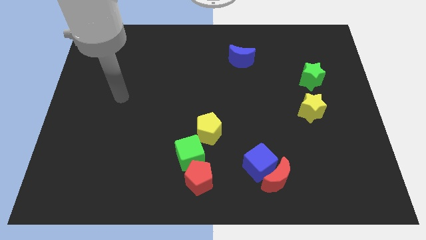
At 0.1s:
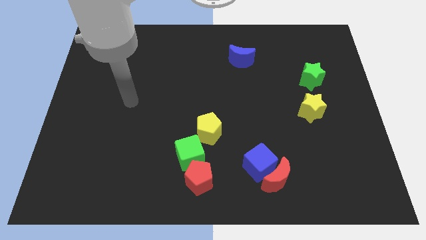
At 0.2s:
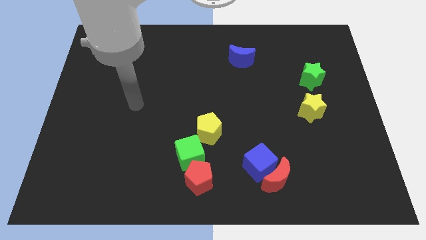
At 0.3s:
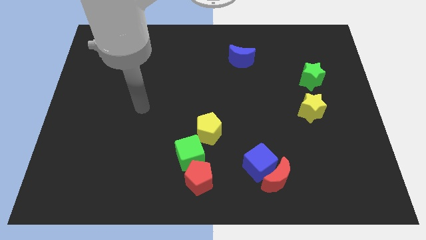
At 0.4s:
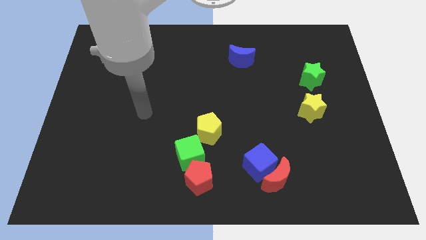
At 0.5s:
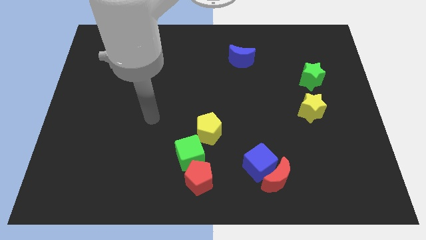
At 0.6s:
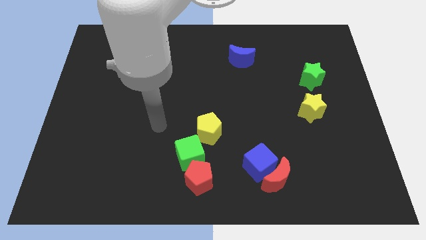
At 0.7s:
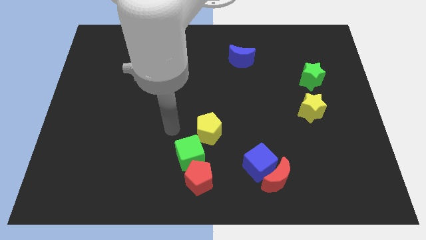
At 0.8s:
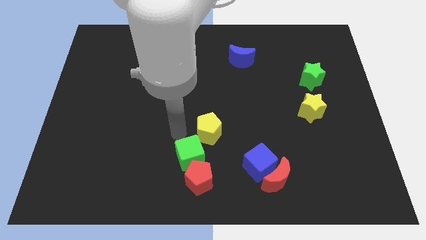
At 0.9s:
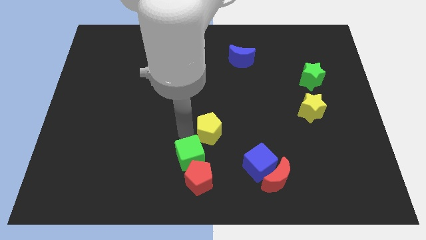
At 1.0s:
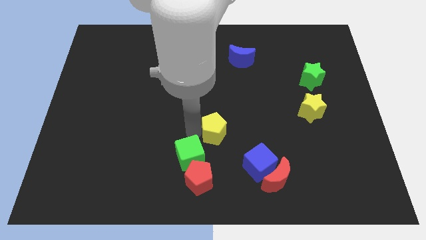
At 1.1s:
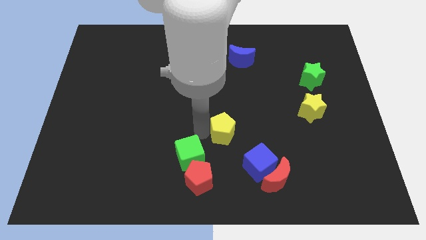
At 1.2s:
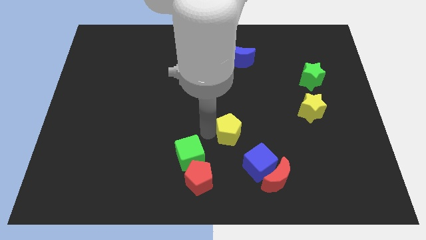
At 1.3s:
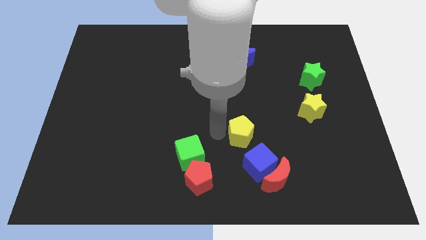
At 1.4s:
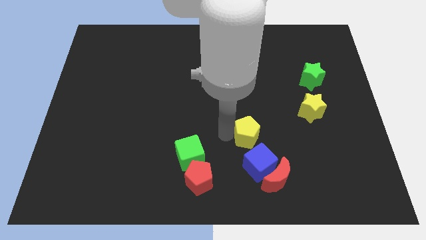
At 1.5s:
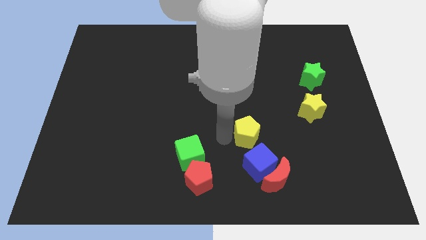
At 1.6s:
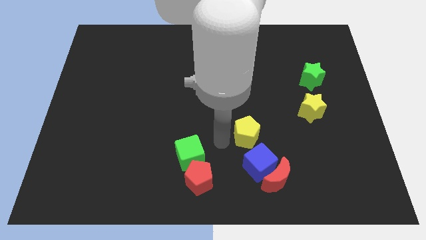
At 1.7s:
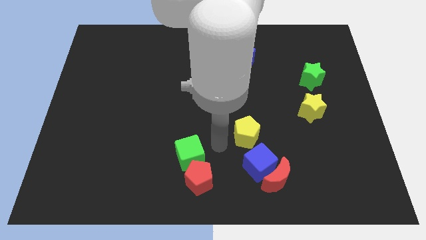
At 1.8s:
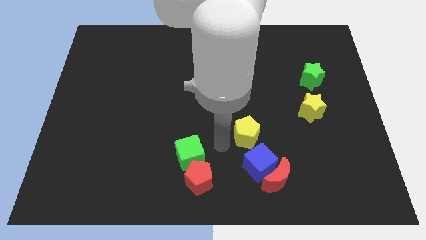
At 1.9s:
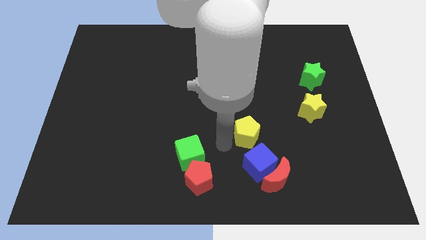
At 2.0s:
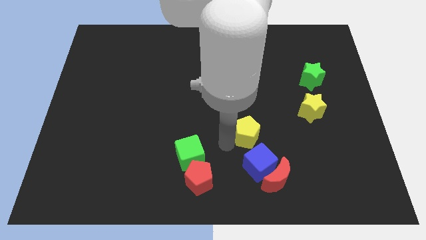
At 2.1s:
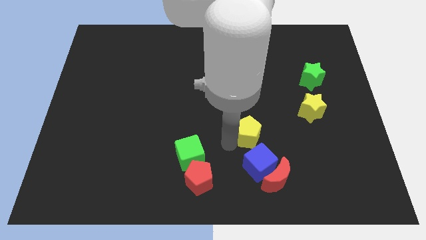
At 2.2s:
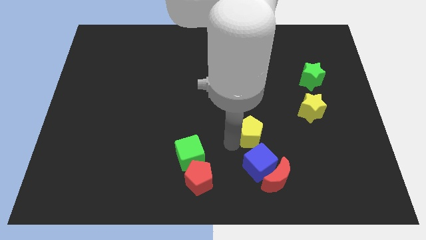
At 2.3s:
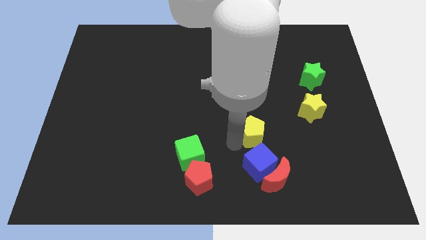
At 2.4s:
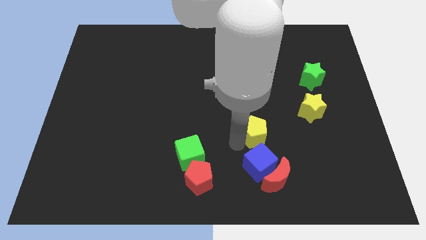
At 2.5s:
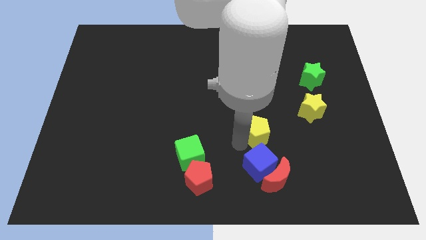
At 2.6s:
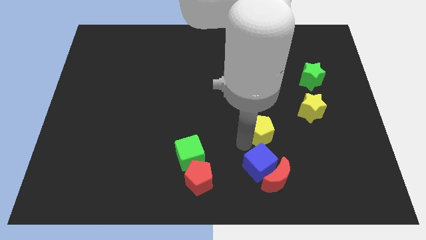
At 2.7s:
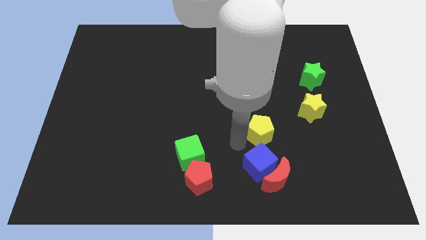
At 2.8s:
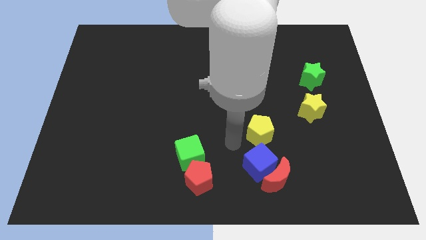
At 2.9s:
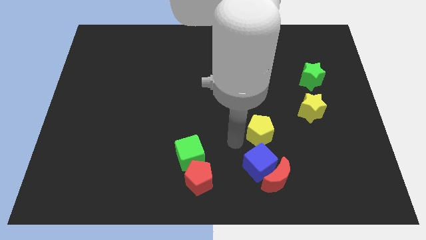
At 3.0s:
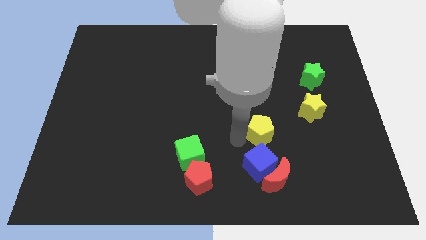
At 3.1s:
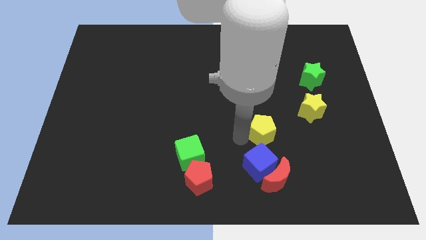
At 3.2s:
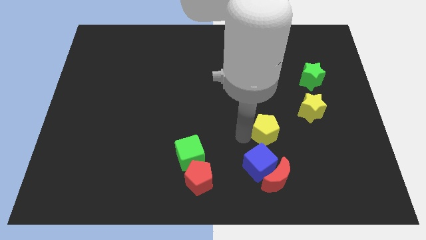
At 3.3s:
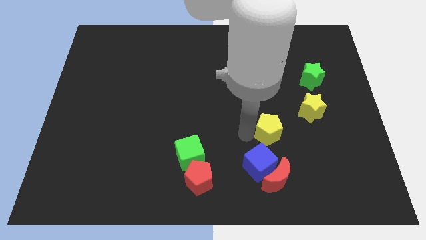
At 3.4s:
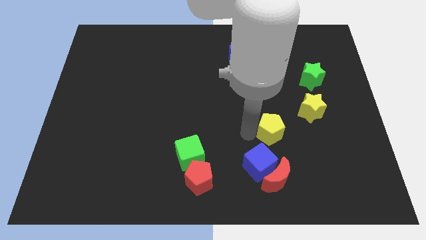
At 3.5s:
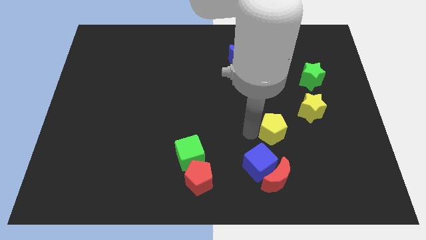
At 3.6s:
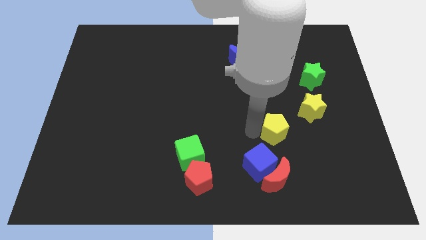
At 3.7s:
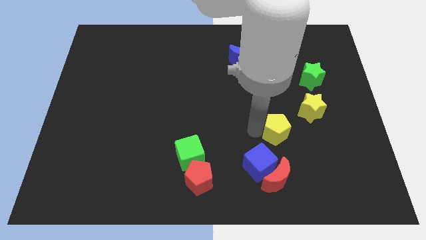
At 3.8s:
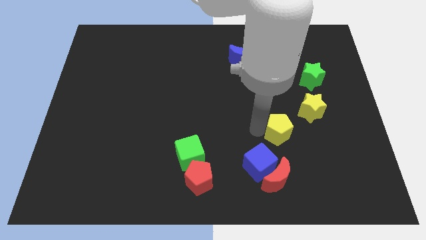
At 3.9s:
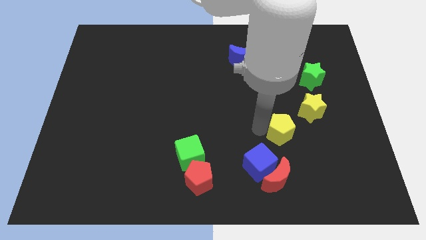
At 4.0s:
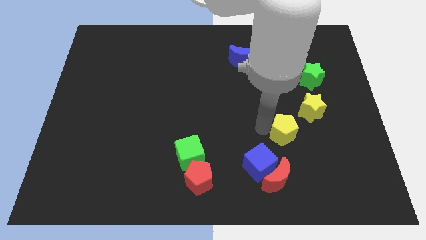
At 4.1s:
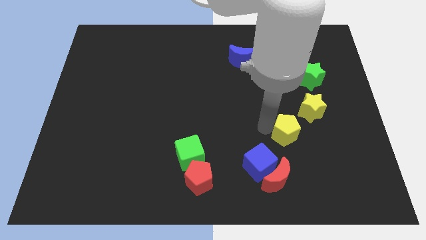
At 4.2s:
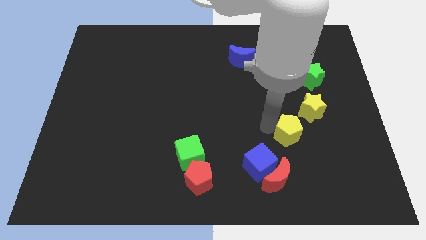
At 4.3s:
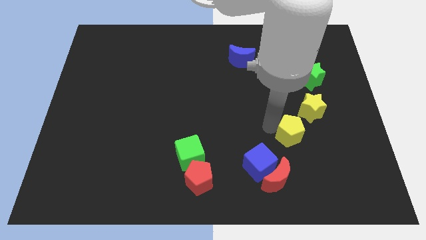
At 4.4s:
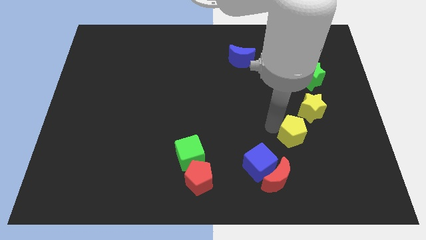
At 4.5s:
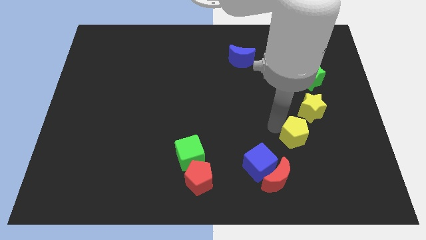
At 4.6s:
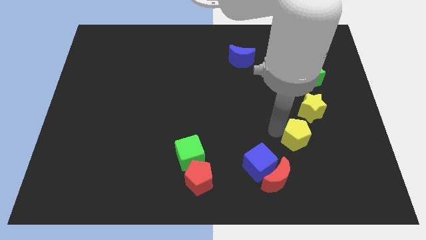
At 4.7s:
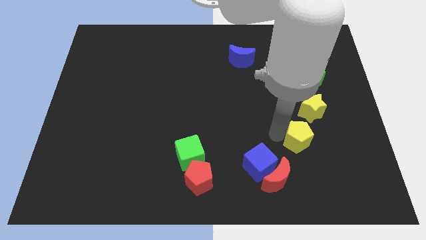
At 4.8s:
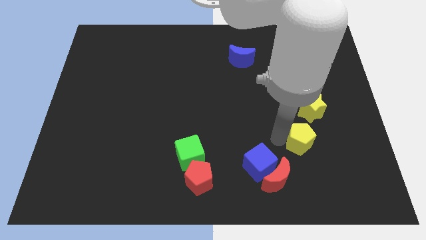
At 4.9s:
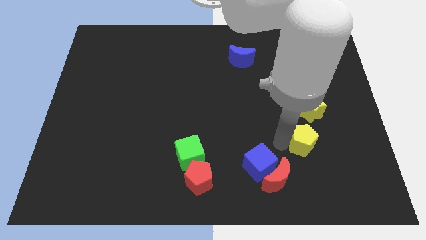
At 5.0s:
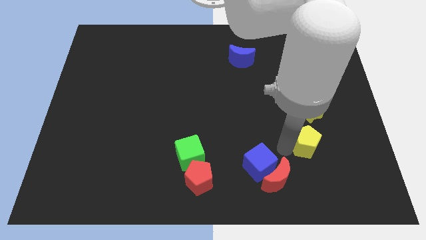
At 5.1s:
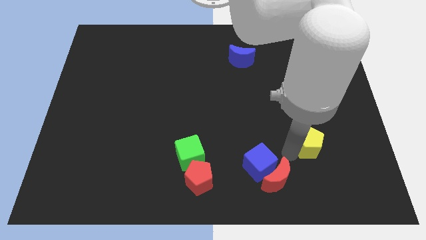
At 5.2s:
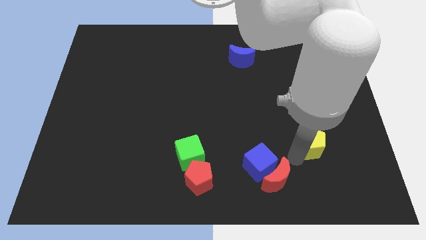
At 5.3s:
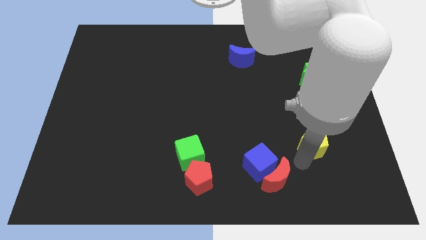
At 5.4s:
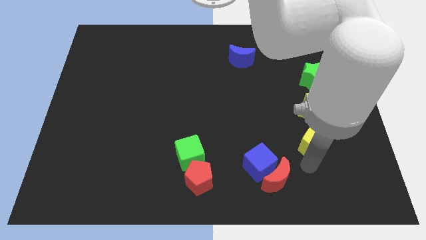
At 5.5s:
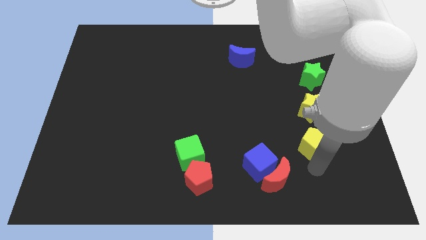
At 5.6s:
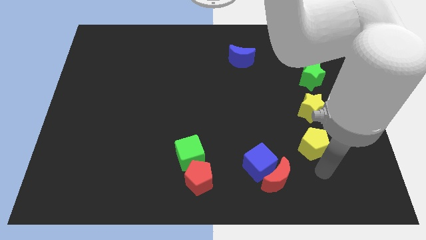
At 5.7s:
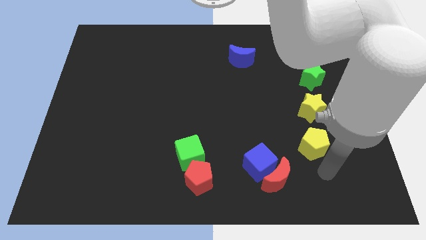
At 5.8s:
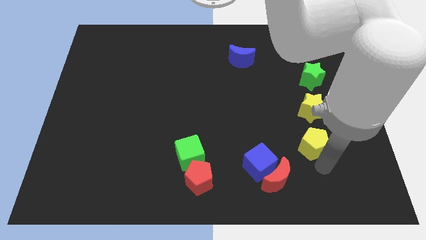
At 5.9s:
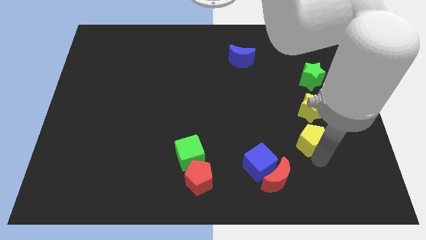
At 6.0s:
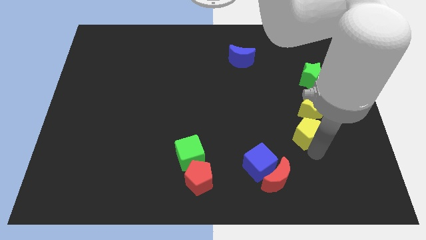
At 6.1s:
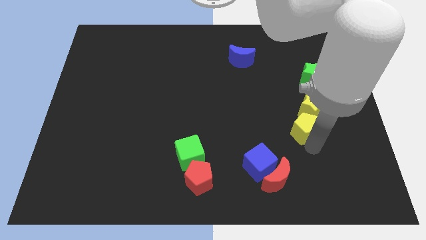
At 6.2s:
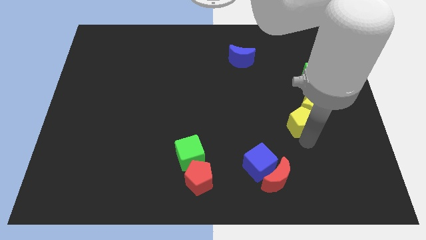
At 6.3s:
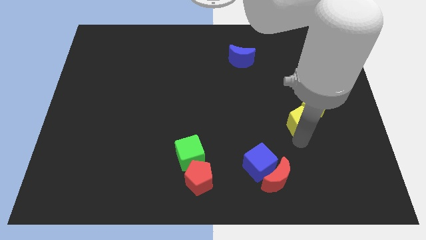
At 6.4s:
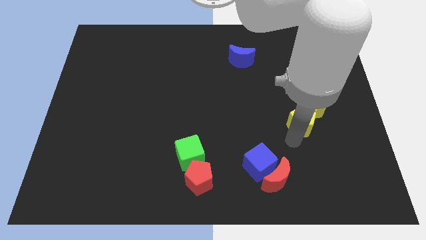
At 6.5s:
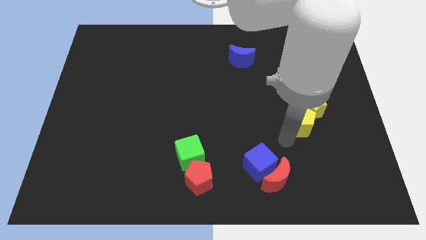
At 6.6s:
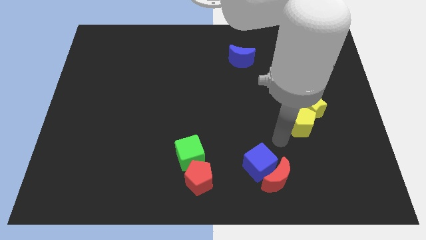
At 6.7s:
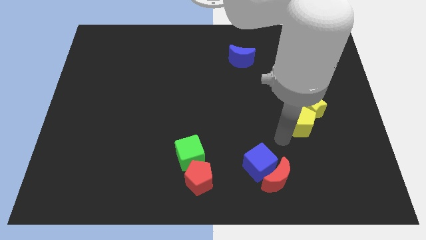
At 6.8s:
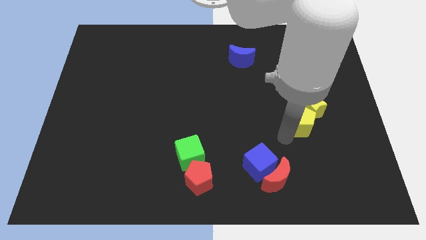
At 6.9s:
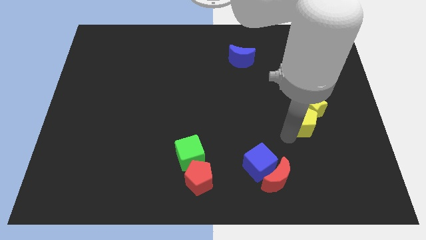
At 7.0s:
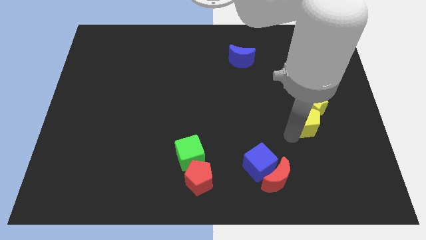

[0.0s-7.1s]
move the yellow pentagon to the bottom side of the green star
